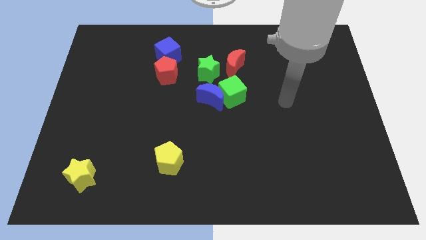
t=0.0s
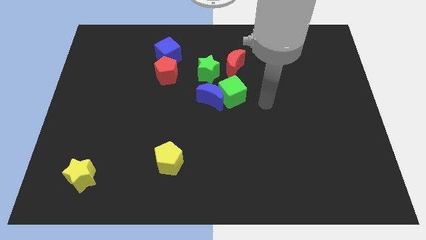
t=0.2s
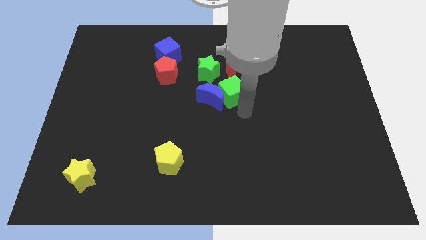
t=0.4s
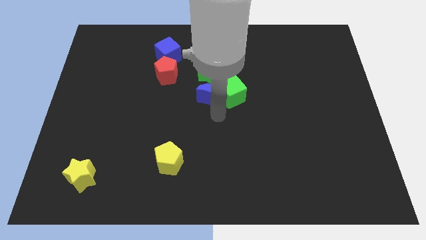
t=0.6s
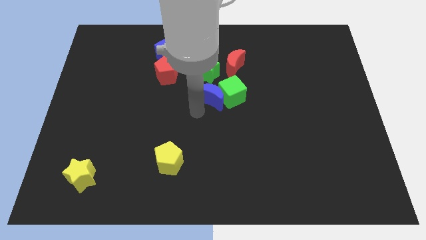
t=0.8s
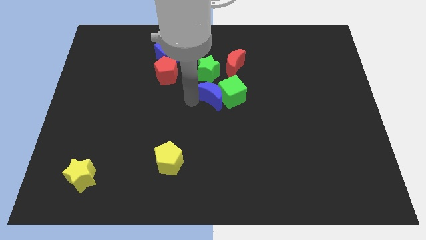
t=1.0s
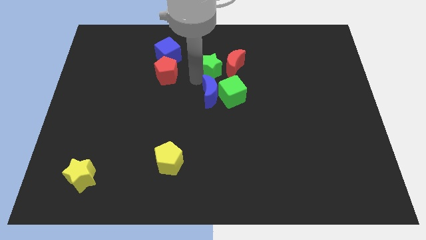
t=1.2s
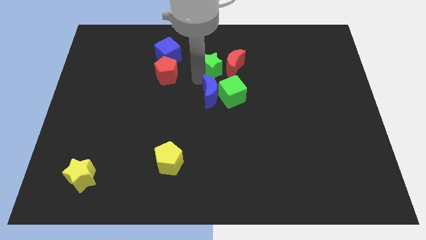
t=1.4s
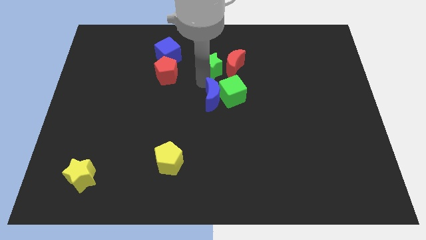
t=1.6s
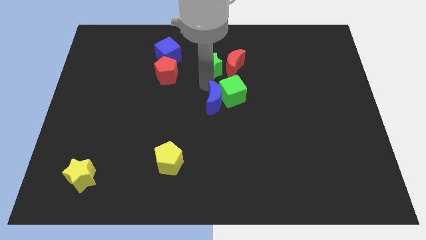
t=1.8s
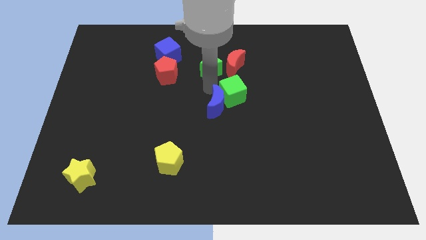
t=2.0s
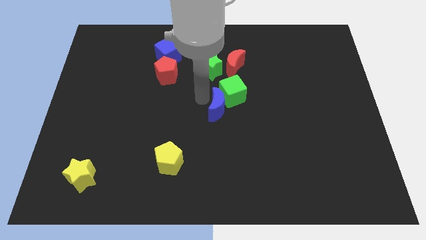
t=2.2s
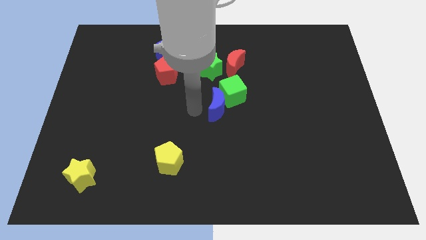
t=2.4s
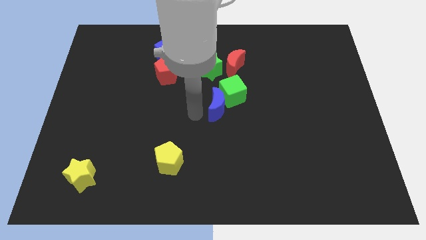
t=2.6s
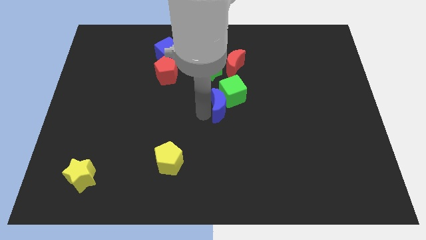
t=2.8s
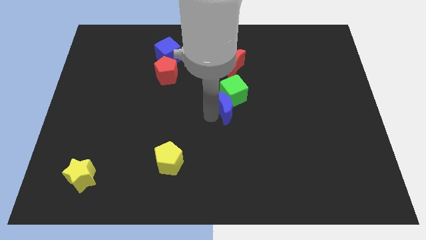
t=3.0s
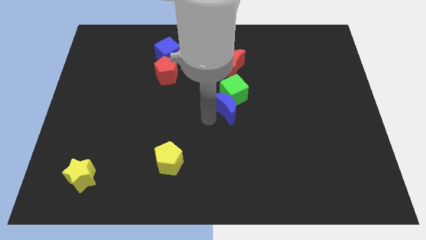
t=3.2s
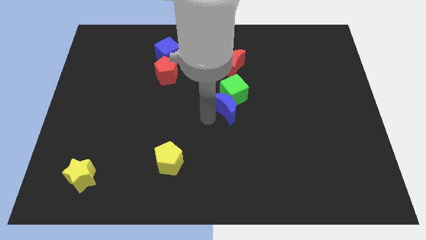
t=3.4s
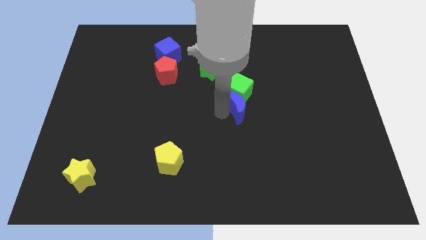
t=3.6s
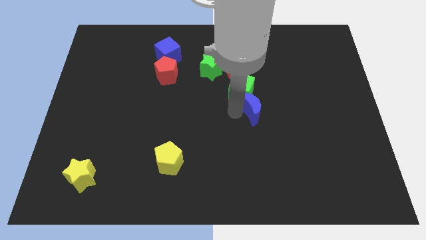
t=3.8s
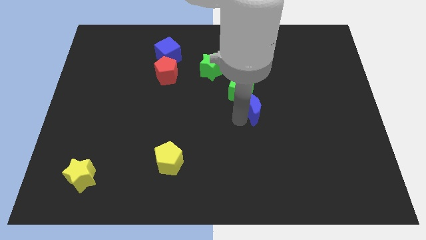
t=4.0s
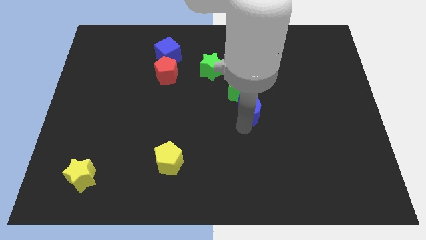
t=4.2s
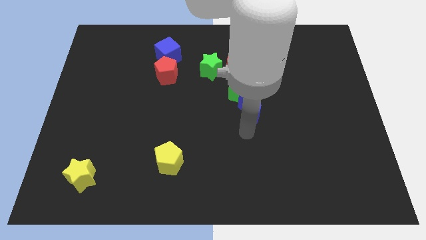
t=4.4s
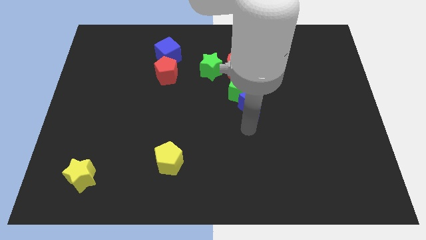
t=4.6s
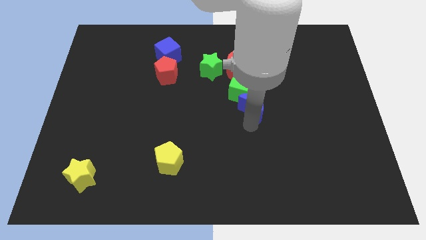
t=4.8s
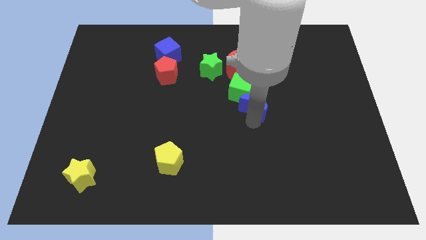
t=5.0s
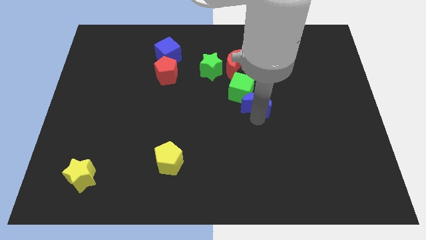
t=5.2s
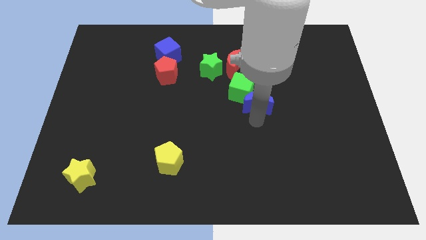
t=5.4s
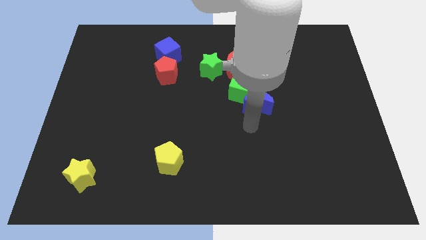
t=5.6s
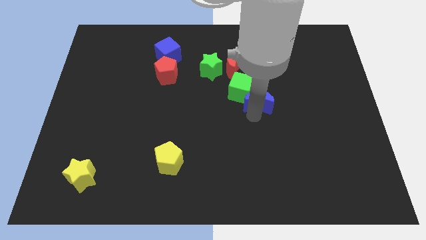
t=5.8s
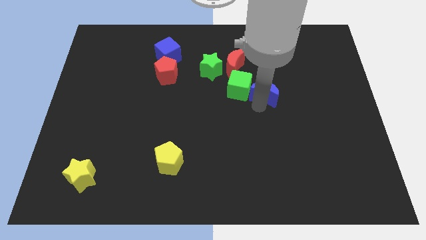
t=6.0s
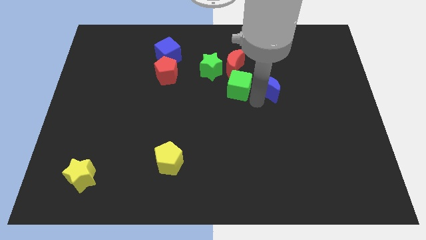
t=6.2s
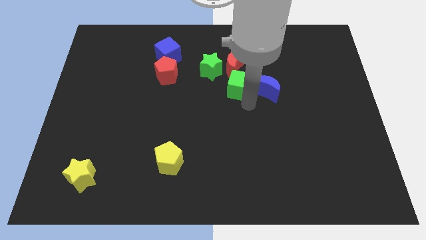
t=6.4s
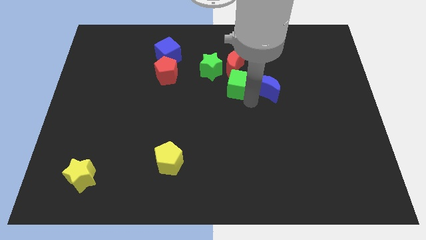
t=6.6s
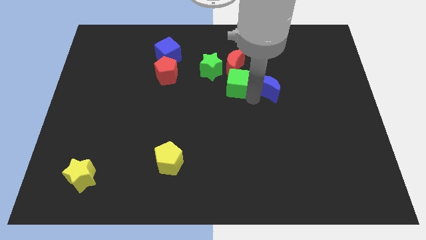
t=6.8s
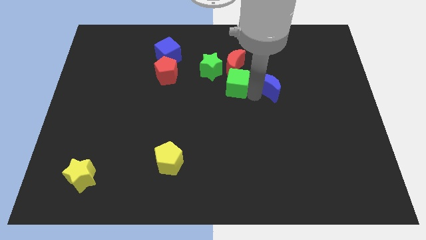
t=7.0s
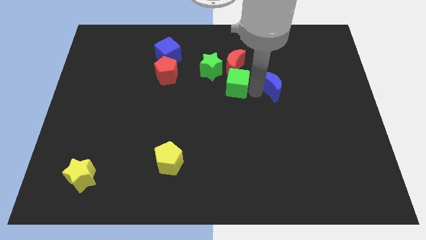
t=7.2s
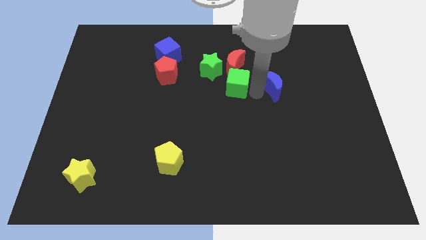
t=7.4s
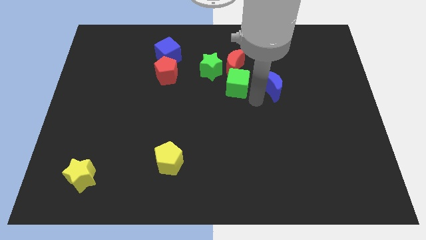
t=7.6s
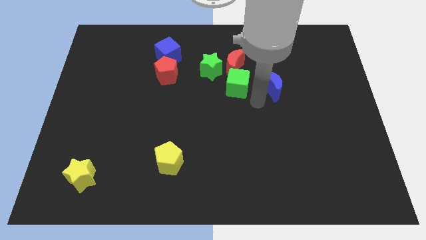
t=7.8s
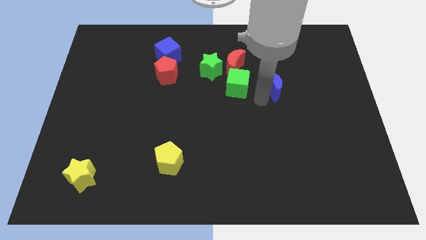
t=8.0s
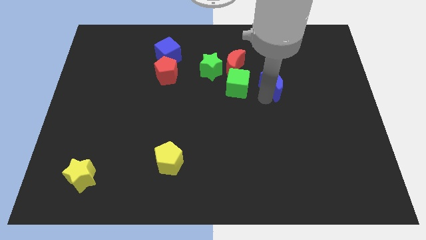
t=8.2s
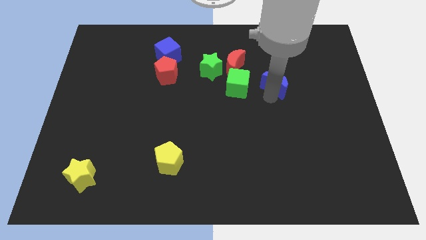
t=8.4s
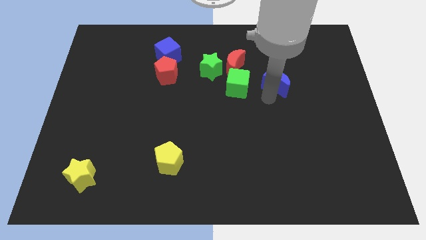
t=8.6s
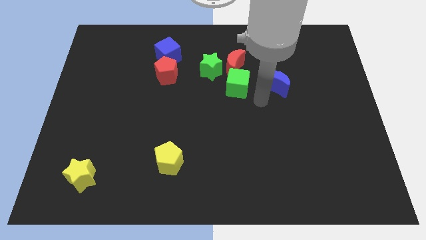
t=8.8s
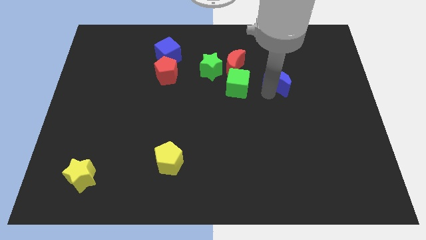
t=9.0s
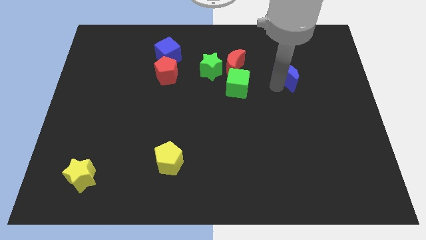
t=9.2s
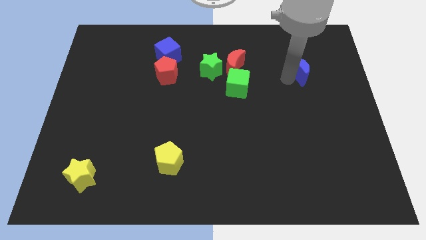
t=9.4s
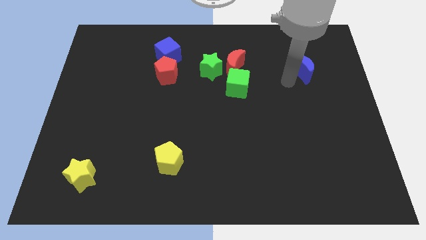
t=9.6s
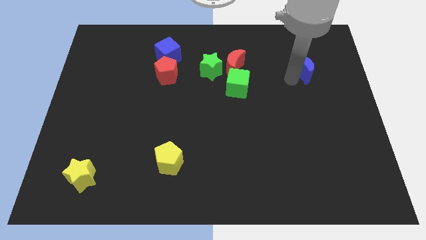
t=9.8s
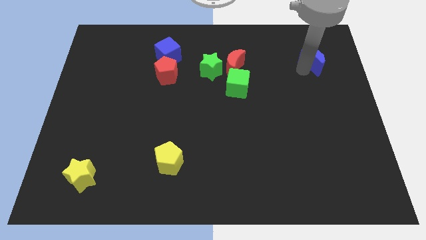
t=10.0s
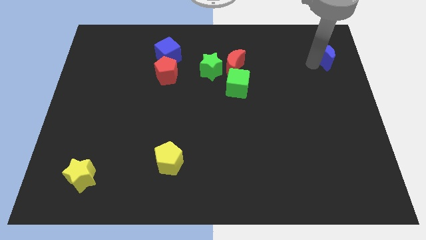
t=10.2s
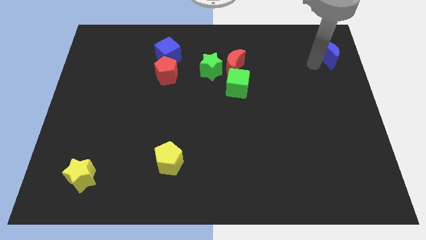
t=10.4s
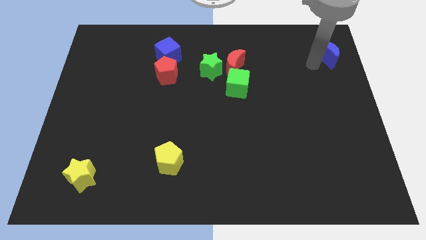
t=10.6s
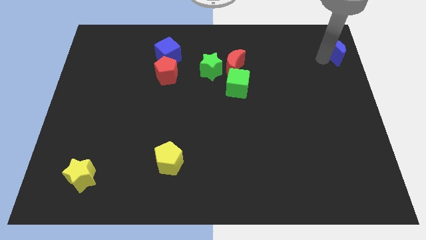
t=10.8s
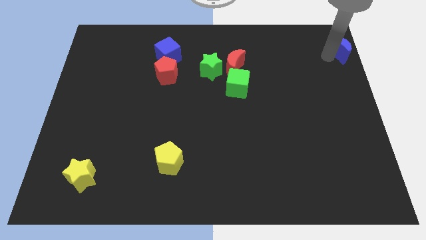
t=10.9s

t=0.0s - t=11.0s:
move the blue moon to the upper right corner
